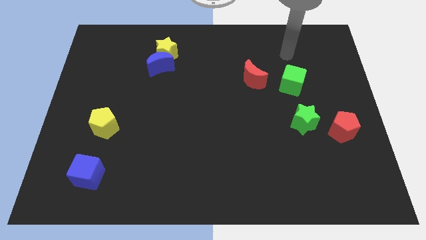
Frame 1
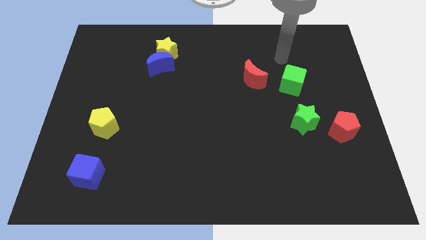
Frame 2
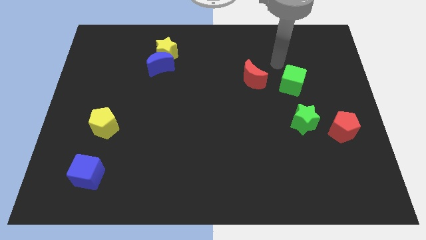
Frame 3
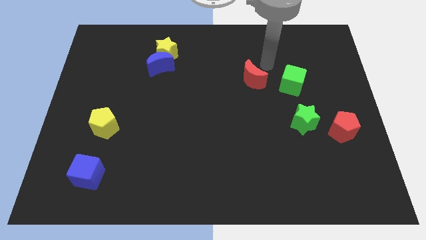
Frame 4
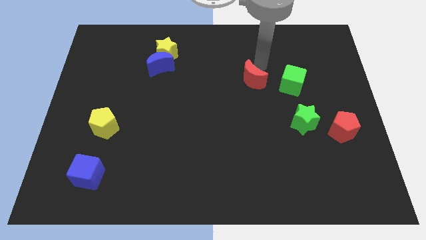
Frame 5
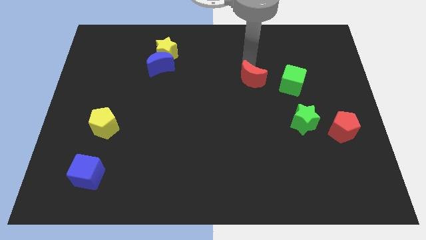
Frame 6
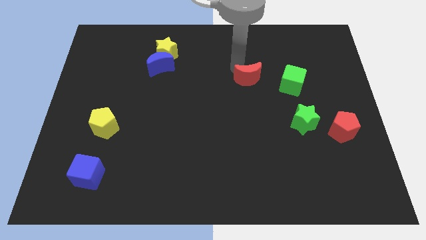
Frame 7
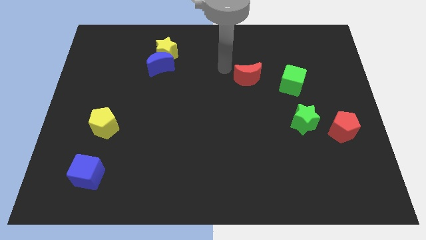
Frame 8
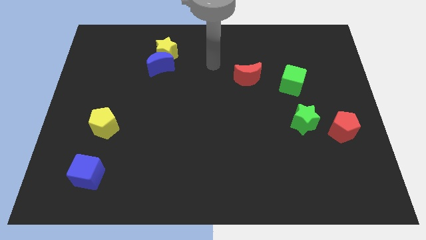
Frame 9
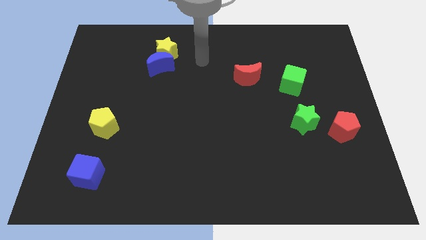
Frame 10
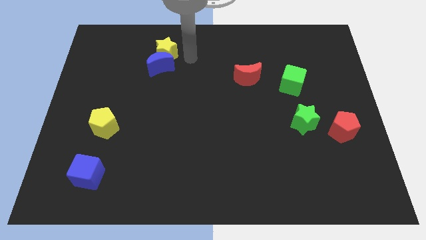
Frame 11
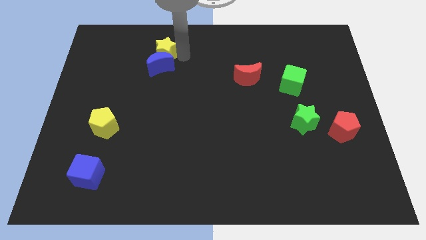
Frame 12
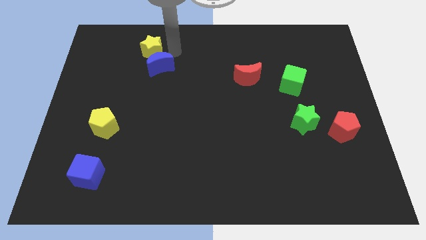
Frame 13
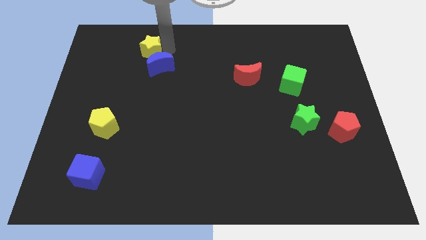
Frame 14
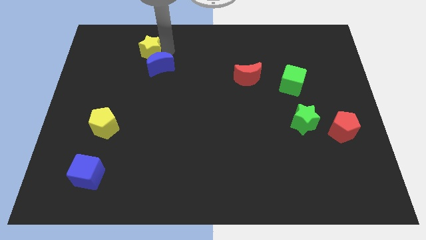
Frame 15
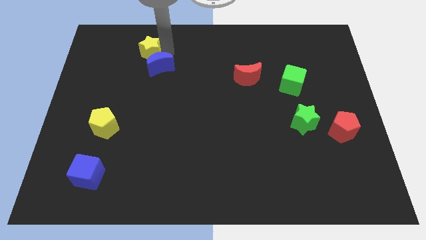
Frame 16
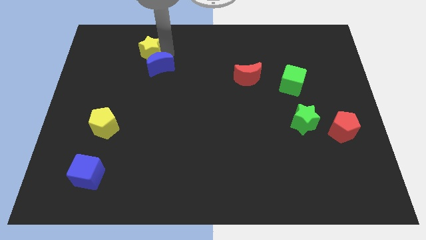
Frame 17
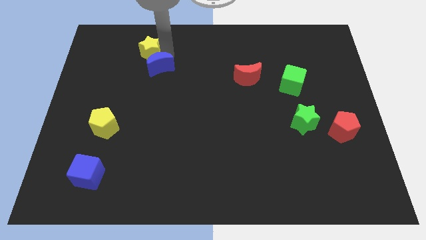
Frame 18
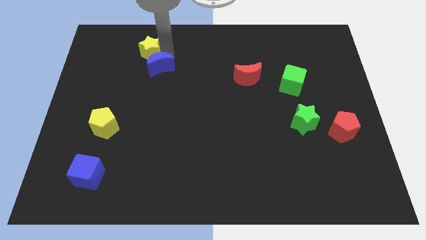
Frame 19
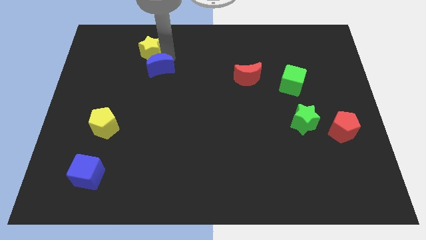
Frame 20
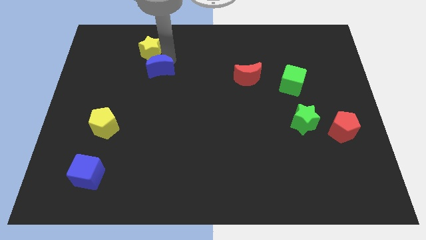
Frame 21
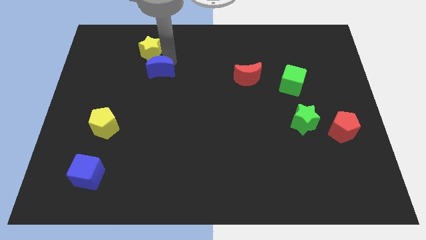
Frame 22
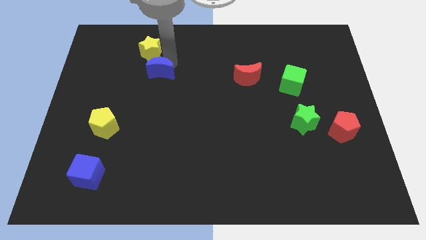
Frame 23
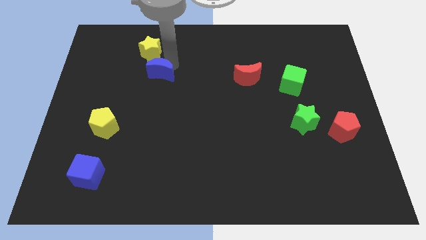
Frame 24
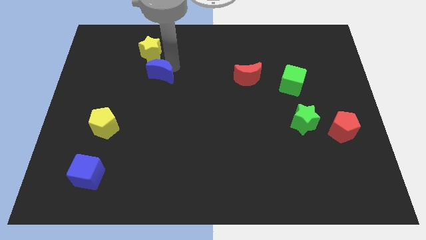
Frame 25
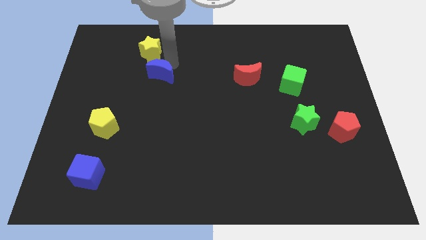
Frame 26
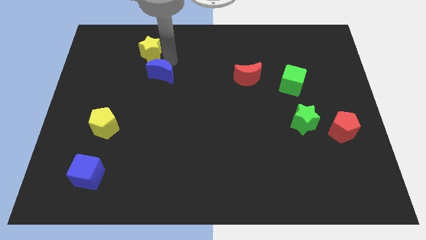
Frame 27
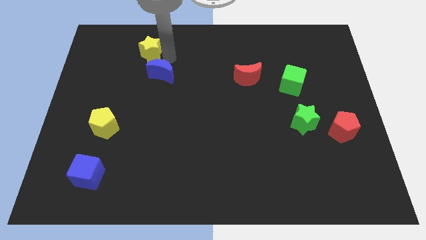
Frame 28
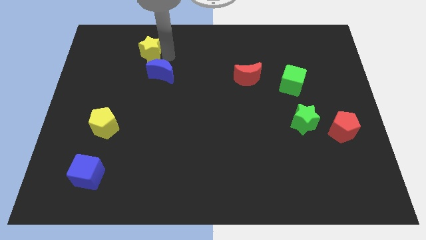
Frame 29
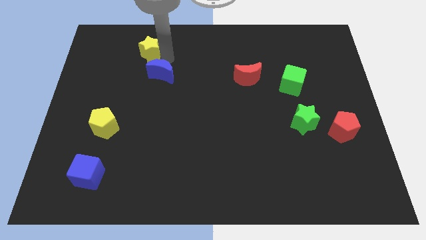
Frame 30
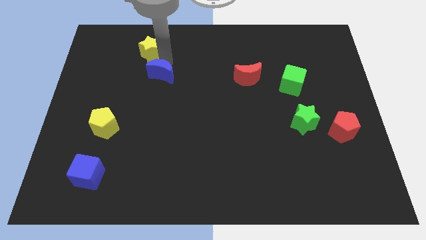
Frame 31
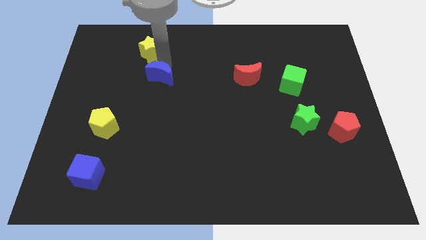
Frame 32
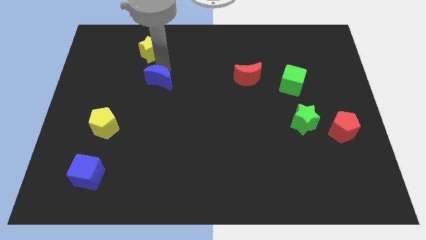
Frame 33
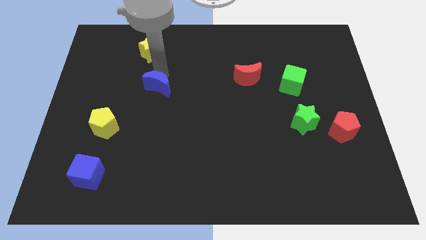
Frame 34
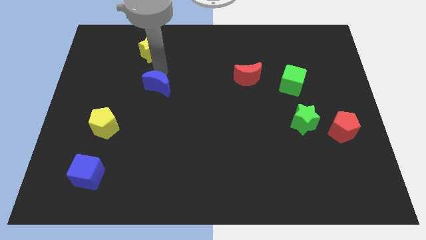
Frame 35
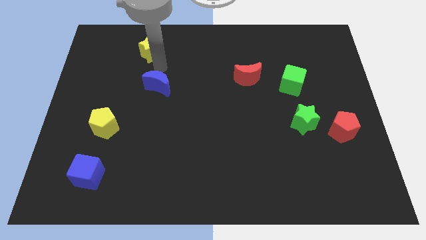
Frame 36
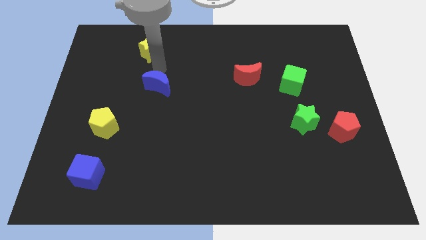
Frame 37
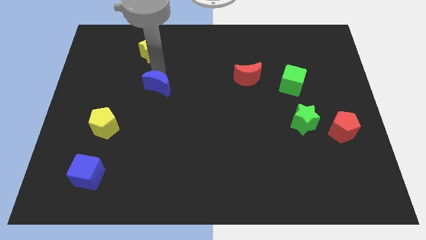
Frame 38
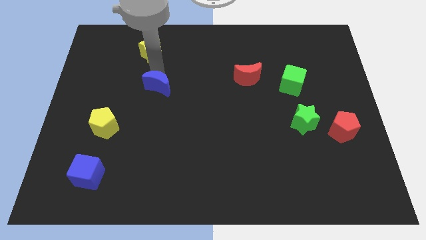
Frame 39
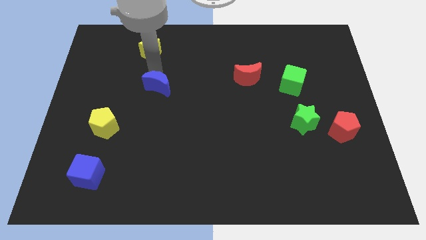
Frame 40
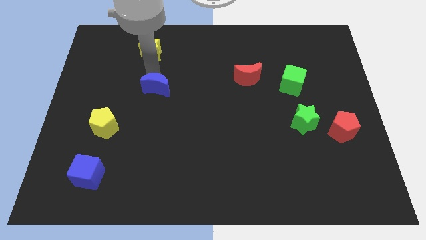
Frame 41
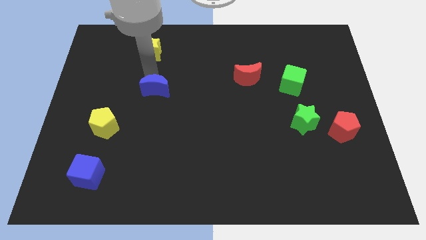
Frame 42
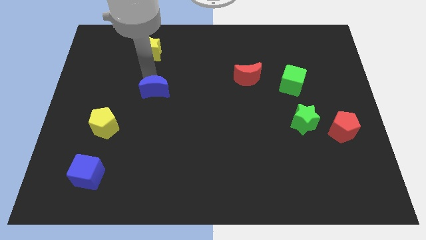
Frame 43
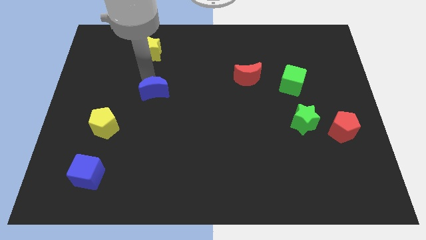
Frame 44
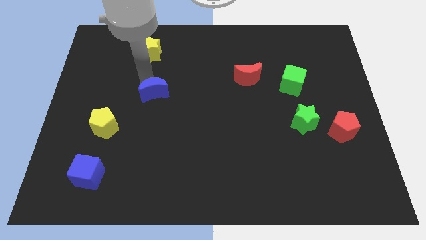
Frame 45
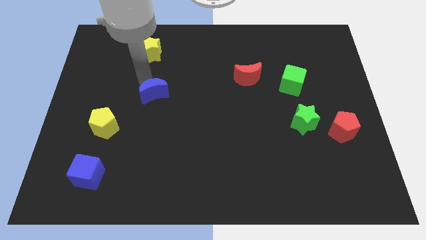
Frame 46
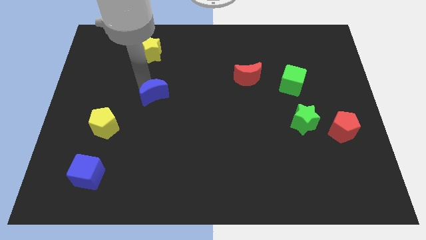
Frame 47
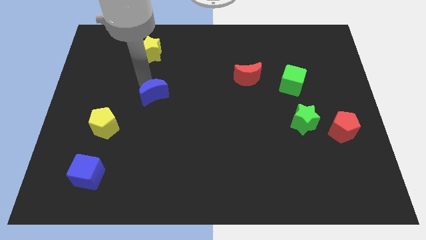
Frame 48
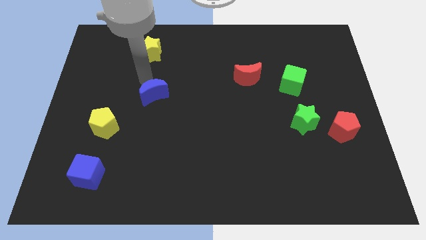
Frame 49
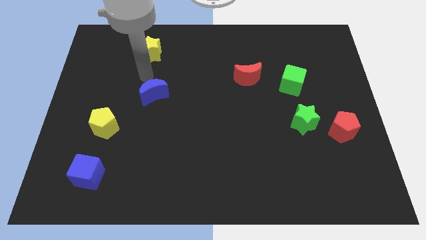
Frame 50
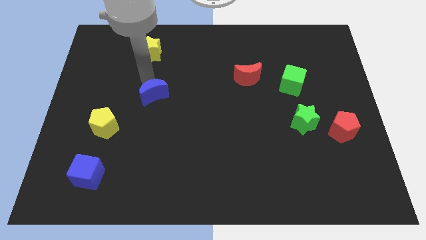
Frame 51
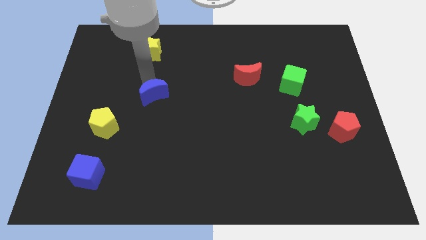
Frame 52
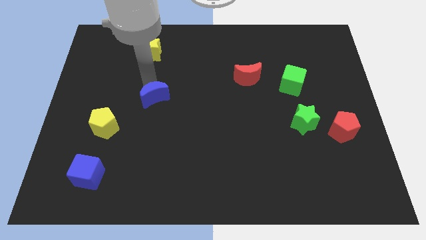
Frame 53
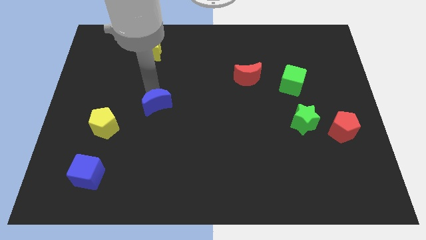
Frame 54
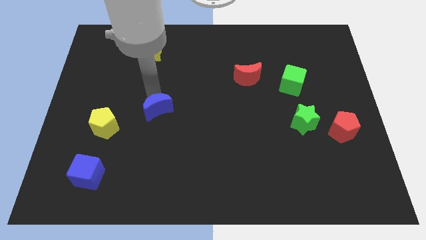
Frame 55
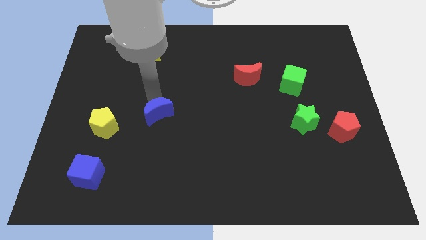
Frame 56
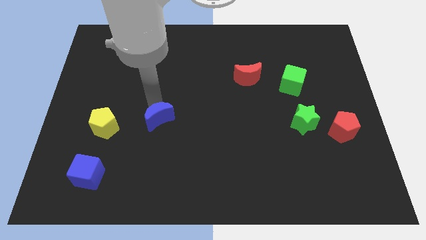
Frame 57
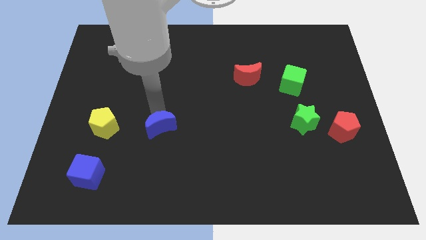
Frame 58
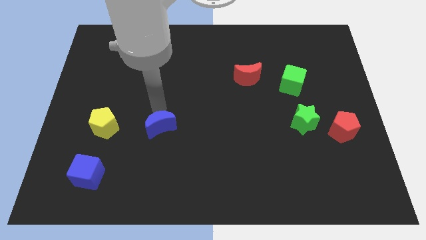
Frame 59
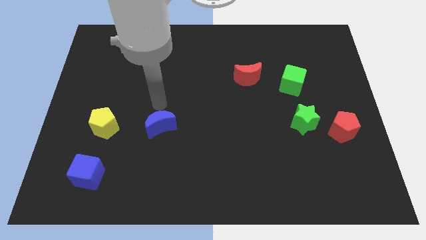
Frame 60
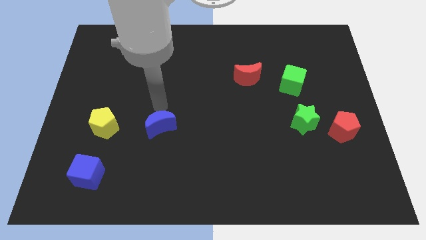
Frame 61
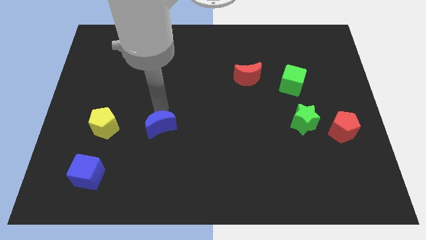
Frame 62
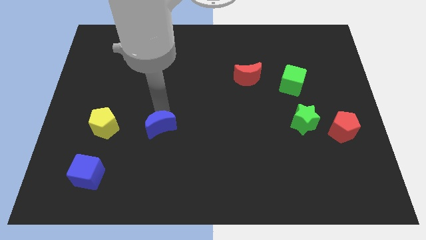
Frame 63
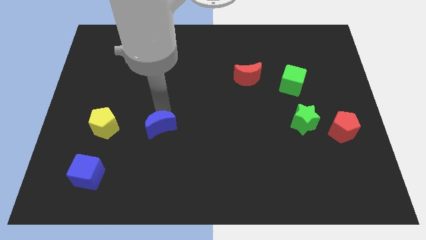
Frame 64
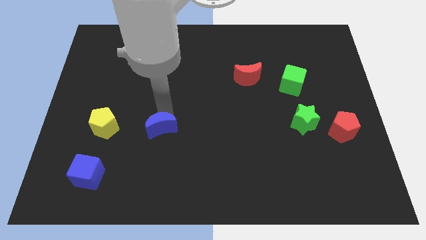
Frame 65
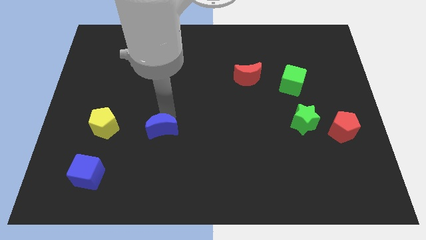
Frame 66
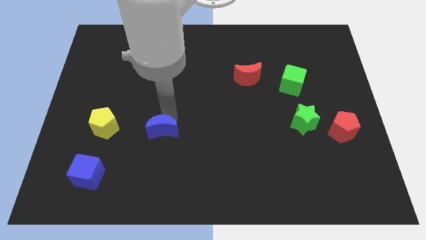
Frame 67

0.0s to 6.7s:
push the blue moon downwards

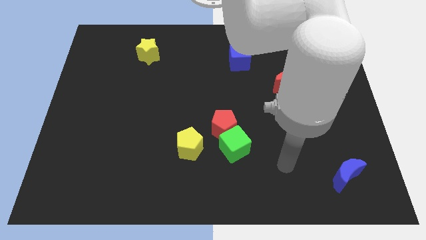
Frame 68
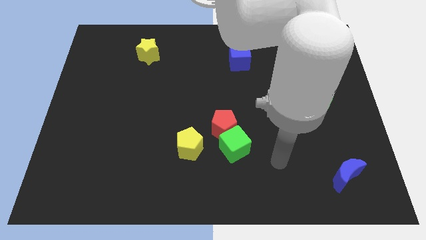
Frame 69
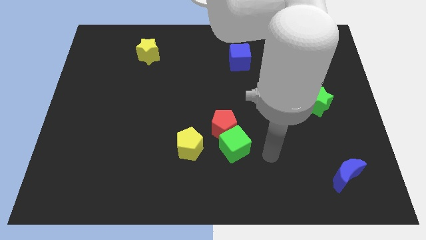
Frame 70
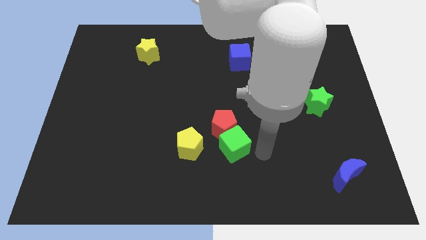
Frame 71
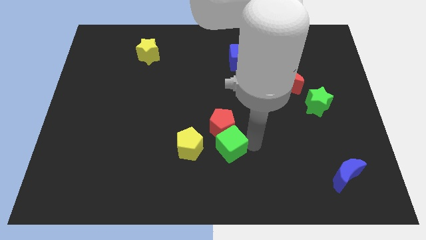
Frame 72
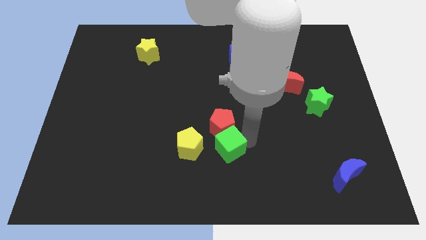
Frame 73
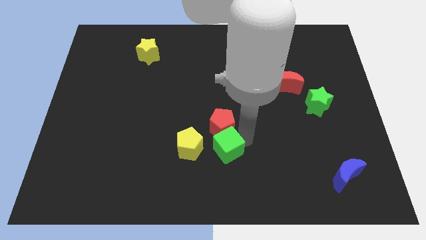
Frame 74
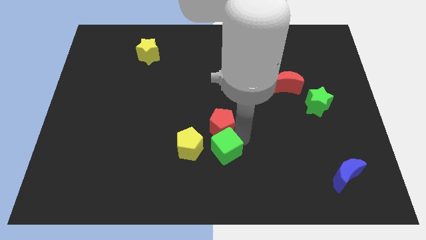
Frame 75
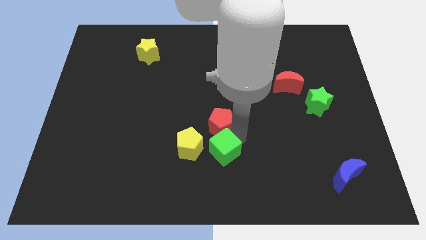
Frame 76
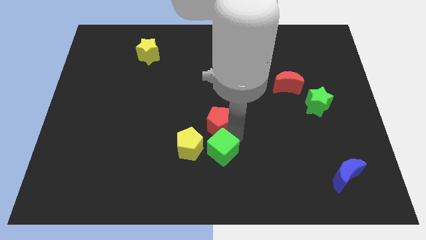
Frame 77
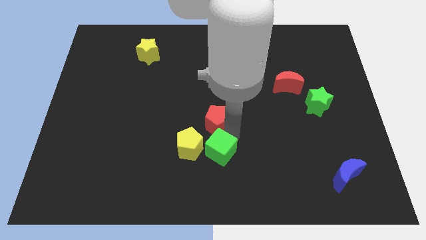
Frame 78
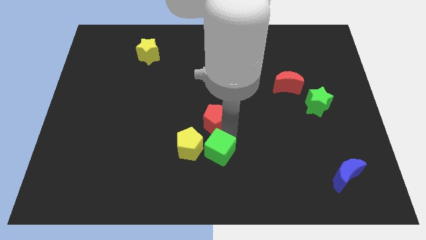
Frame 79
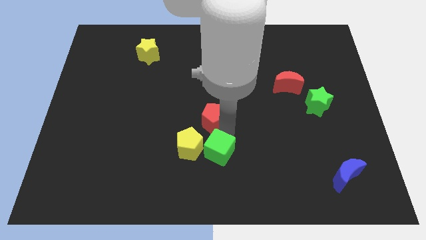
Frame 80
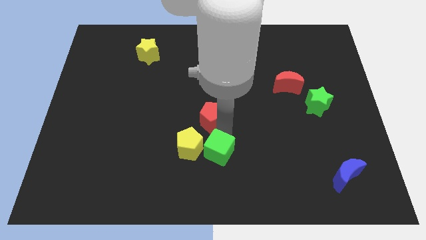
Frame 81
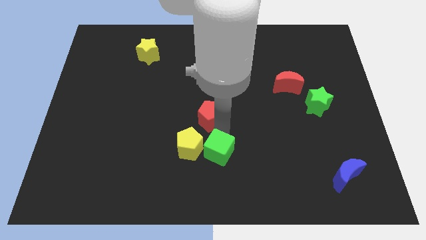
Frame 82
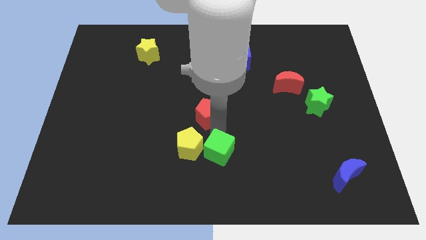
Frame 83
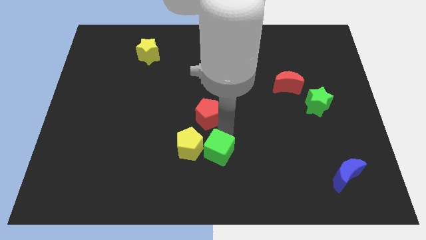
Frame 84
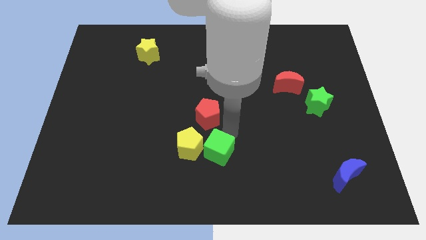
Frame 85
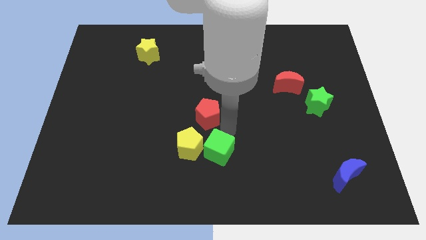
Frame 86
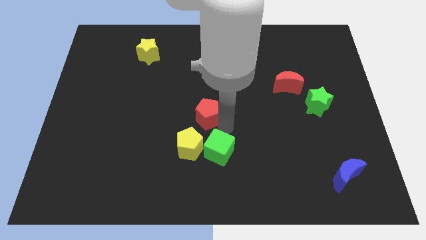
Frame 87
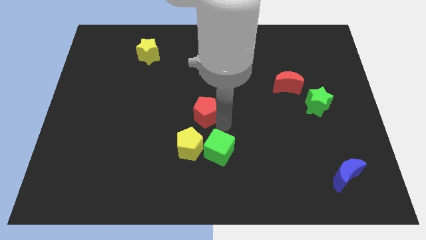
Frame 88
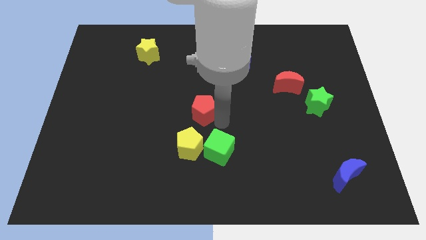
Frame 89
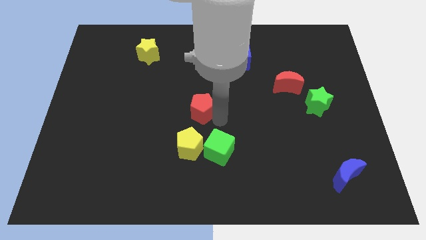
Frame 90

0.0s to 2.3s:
slightly move the red pentagon upwards and then to the left
